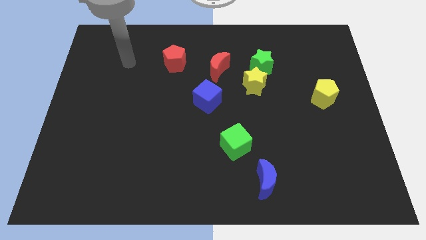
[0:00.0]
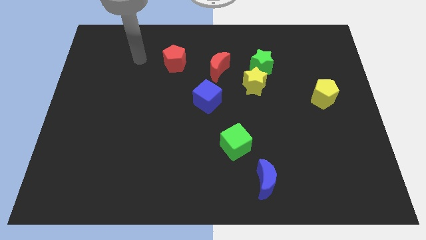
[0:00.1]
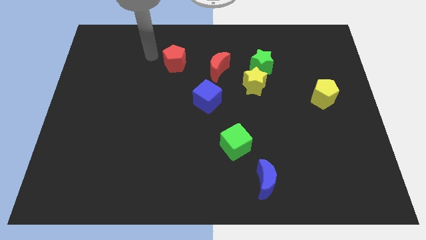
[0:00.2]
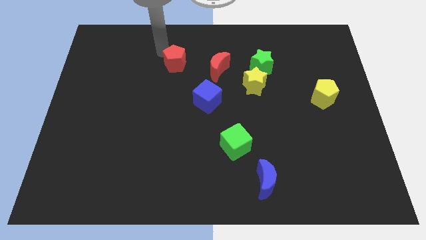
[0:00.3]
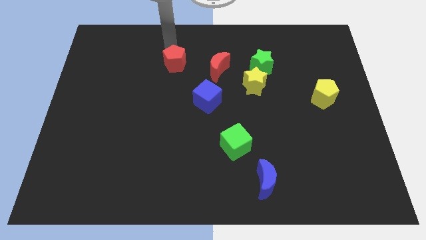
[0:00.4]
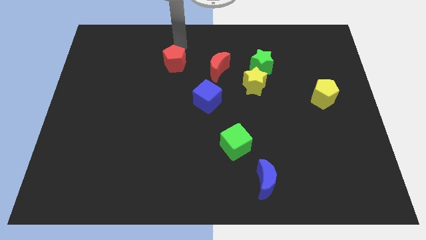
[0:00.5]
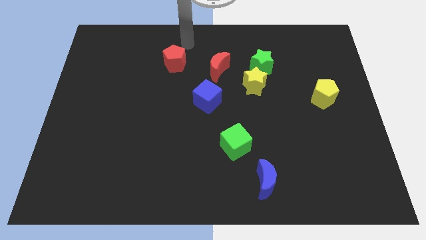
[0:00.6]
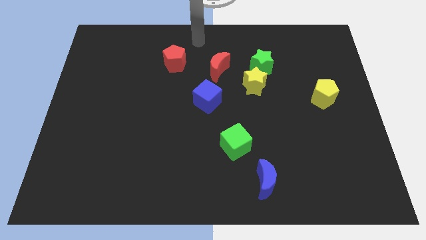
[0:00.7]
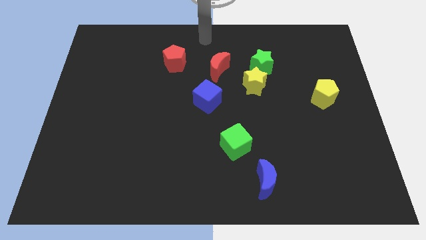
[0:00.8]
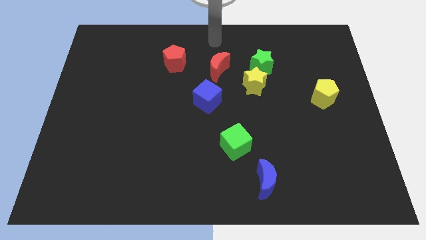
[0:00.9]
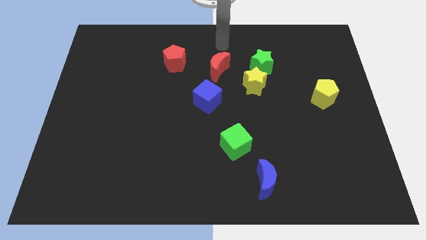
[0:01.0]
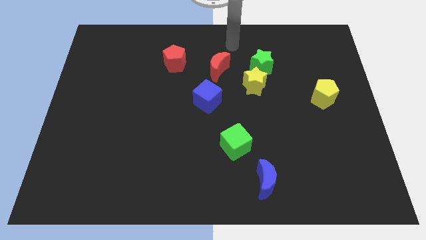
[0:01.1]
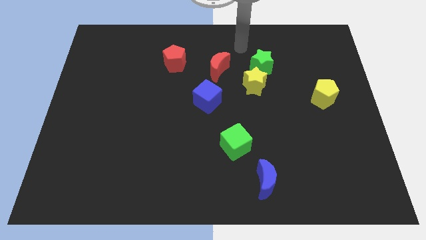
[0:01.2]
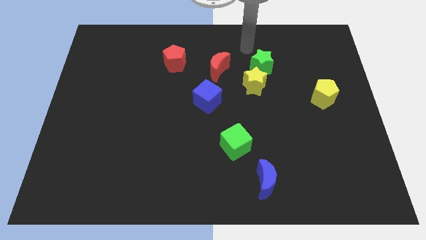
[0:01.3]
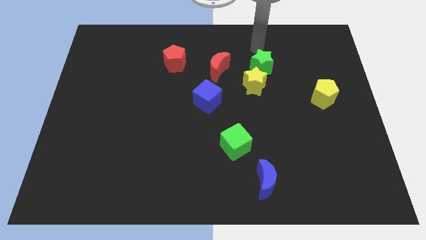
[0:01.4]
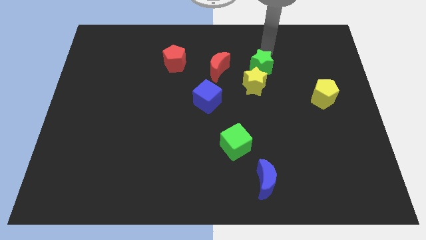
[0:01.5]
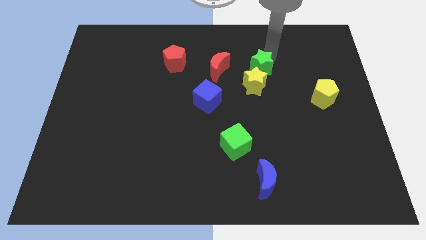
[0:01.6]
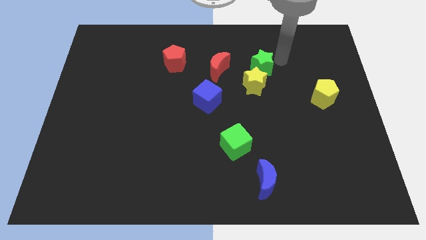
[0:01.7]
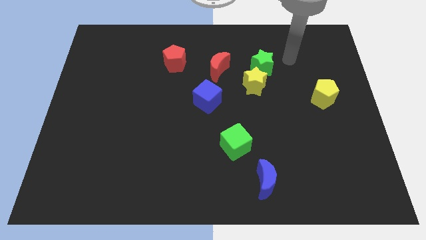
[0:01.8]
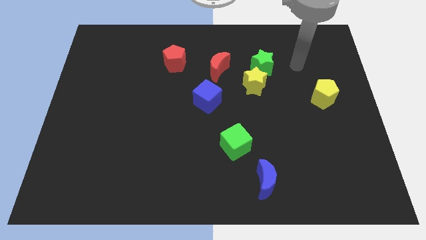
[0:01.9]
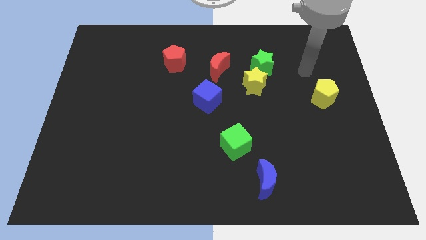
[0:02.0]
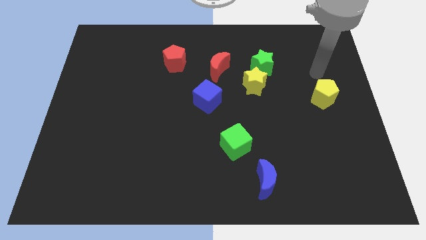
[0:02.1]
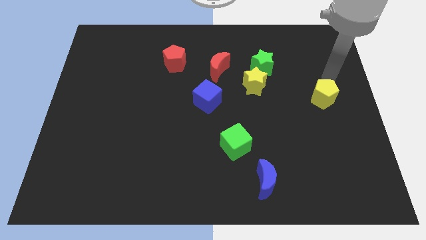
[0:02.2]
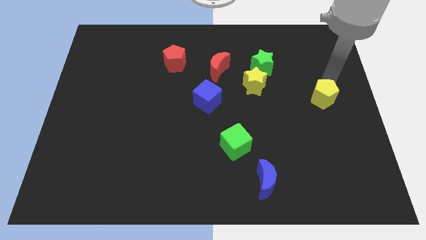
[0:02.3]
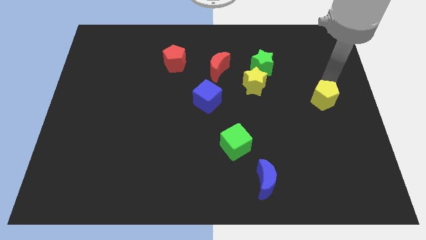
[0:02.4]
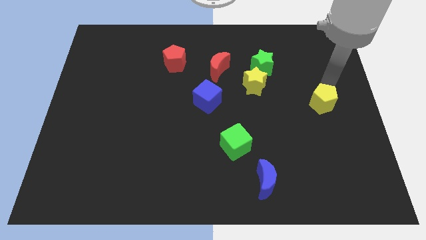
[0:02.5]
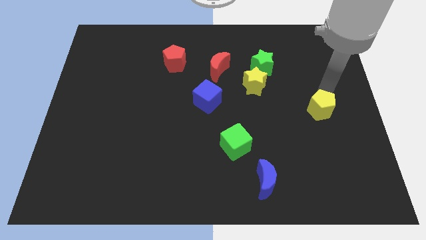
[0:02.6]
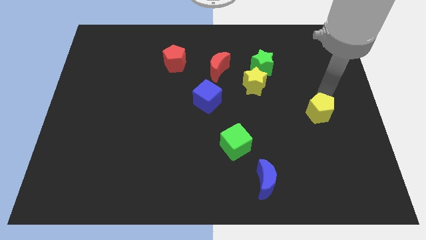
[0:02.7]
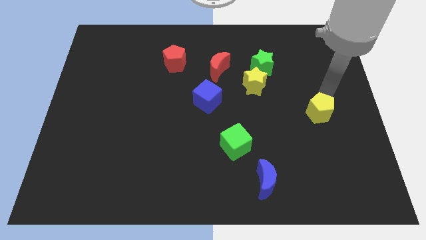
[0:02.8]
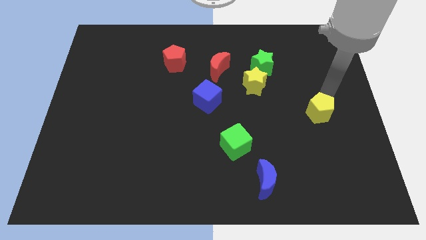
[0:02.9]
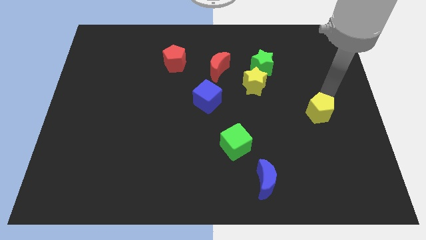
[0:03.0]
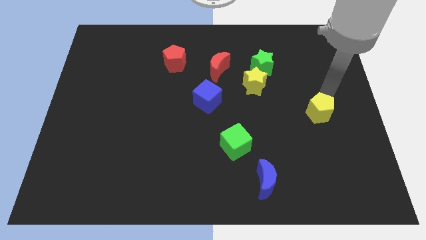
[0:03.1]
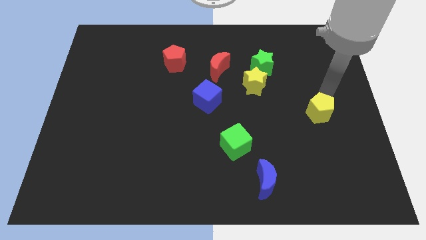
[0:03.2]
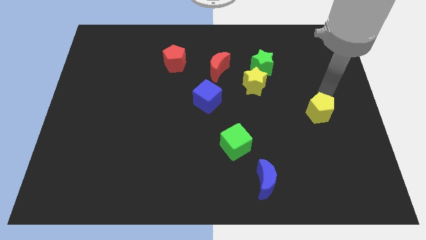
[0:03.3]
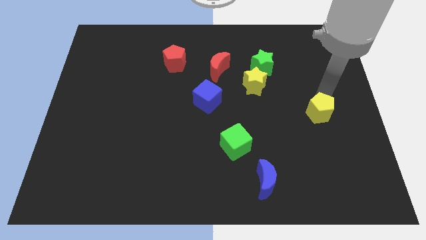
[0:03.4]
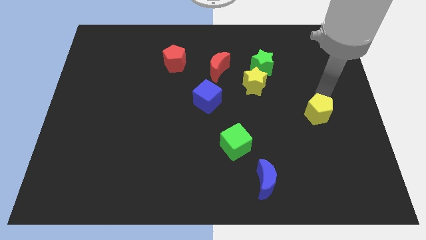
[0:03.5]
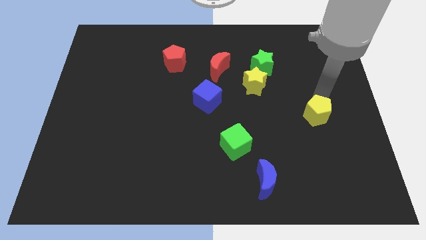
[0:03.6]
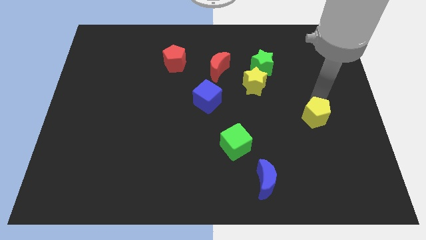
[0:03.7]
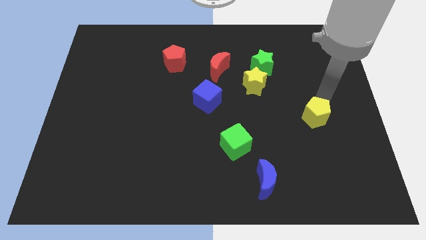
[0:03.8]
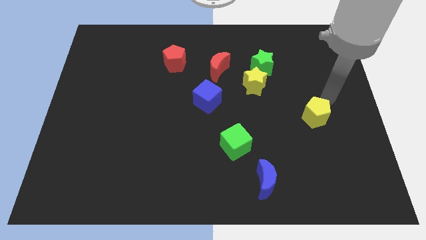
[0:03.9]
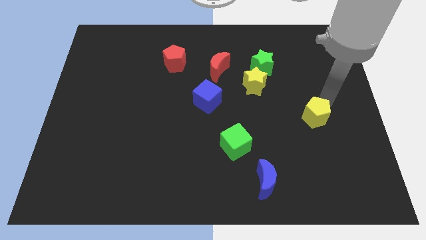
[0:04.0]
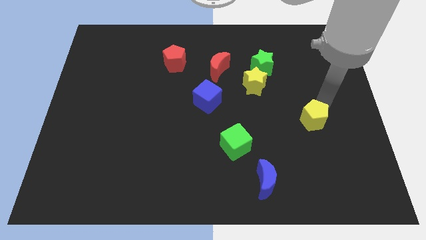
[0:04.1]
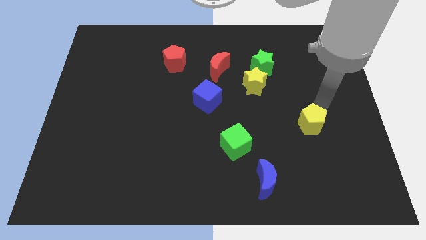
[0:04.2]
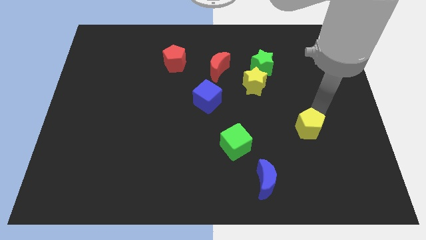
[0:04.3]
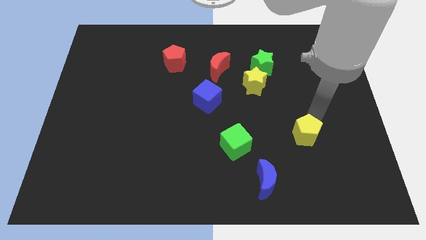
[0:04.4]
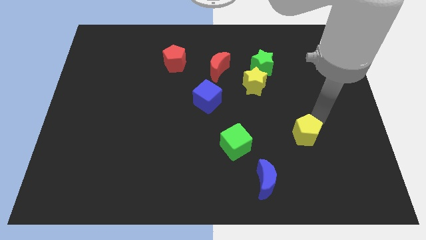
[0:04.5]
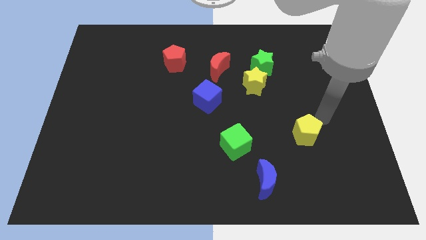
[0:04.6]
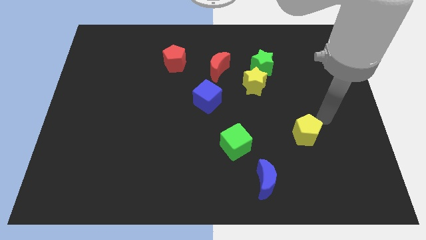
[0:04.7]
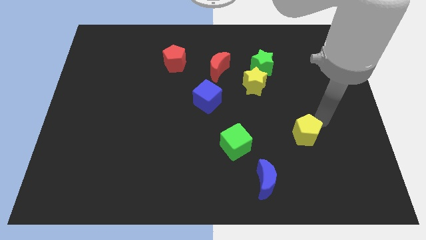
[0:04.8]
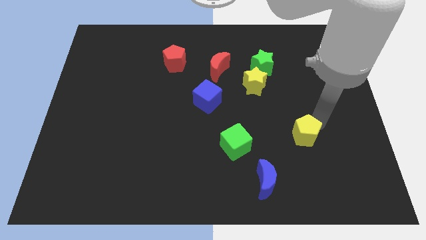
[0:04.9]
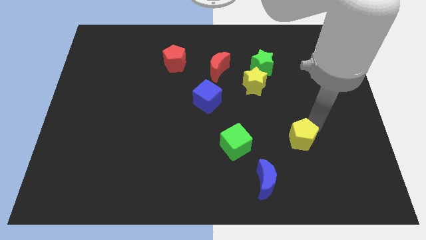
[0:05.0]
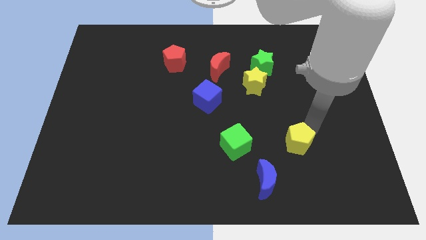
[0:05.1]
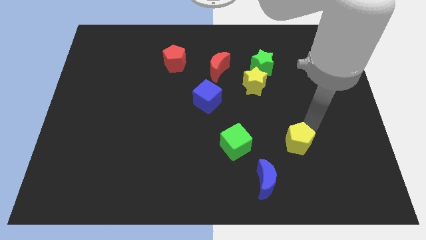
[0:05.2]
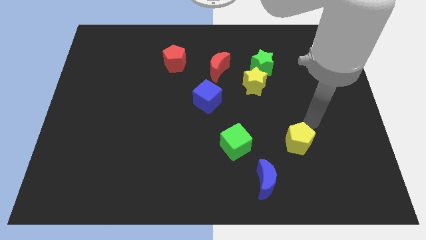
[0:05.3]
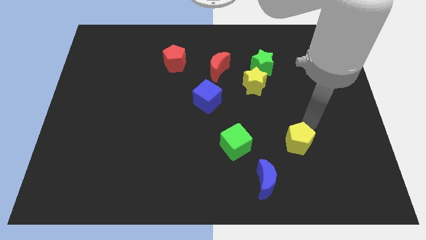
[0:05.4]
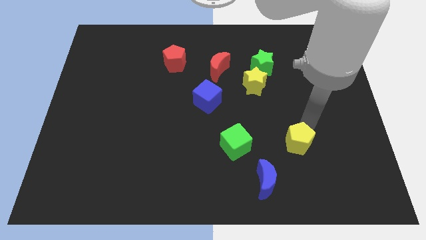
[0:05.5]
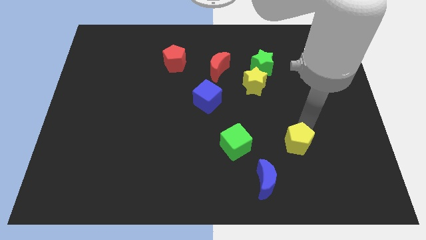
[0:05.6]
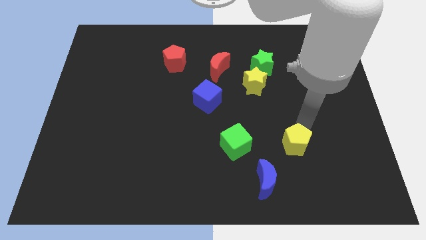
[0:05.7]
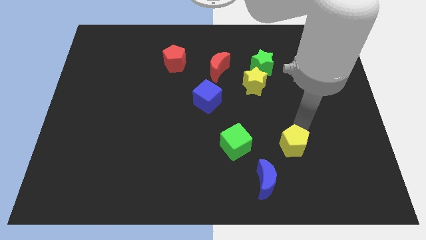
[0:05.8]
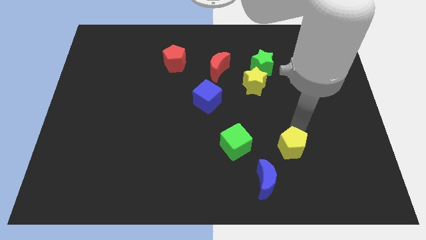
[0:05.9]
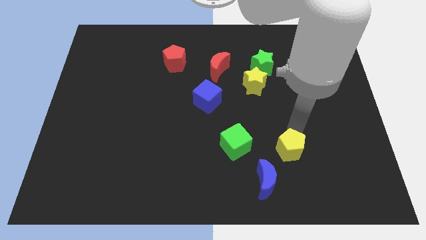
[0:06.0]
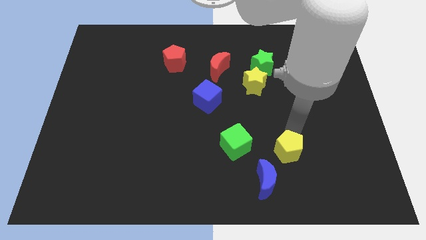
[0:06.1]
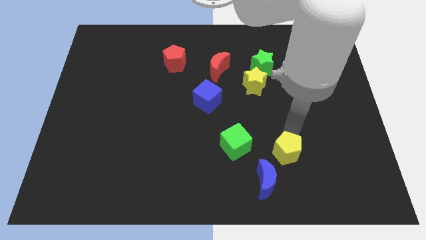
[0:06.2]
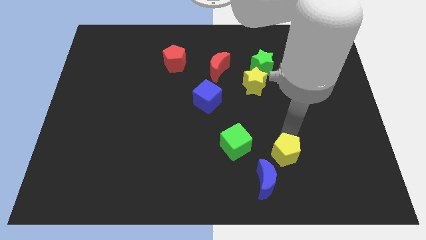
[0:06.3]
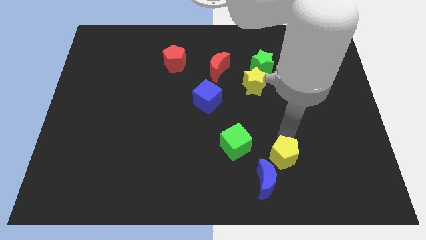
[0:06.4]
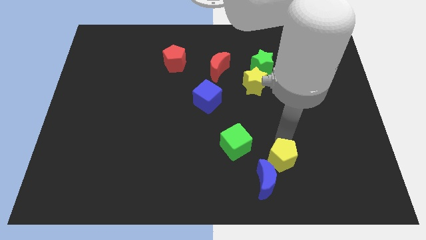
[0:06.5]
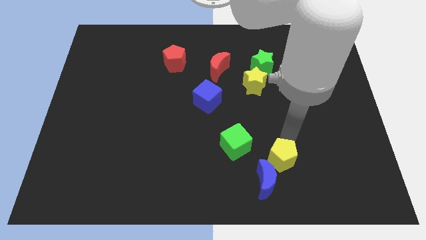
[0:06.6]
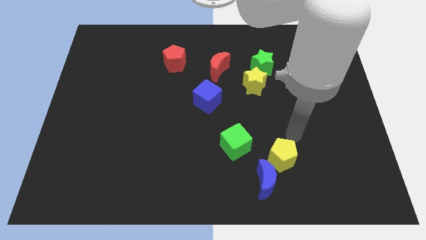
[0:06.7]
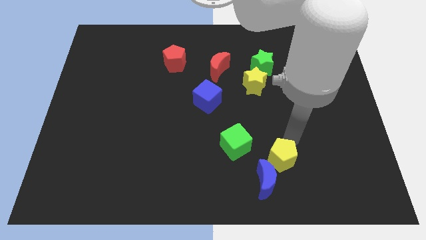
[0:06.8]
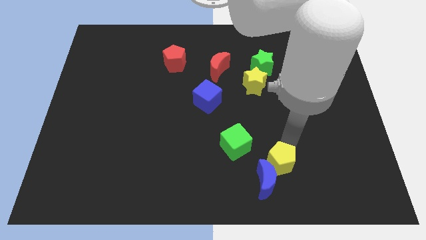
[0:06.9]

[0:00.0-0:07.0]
push the yellow pentagon towards the blue moon
